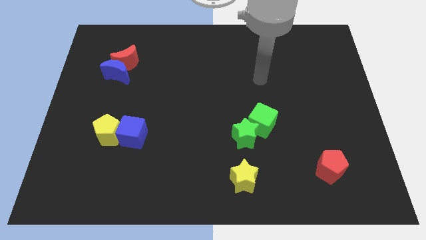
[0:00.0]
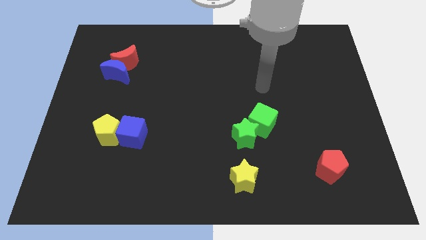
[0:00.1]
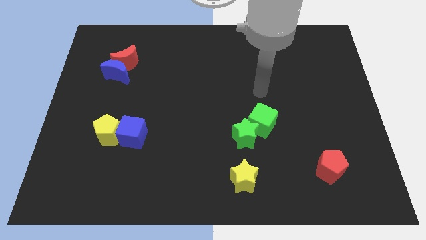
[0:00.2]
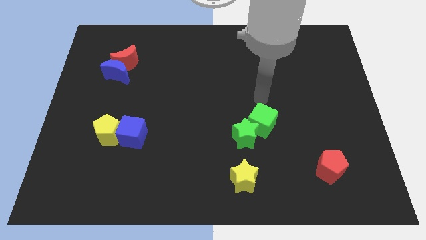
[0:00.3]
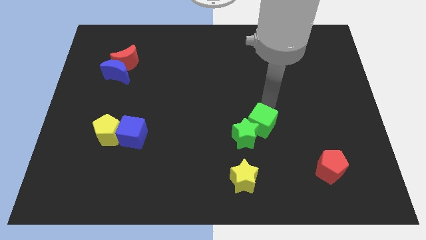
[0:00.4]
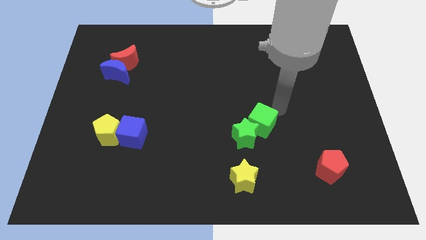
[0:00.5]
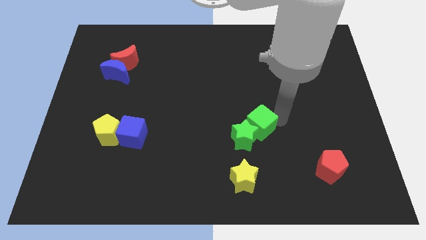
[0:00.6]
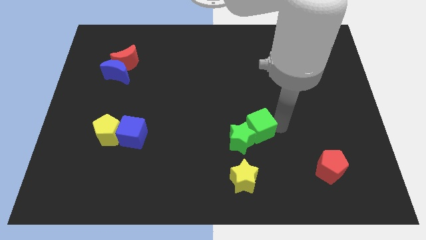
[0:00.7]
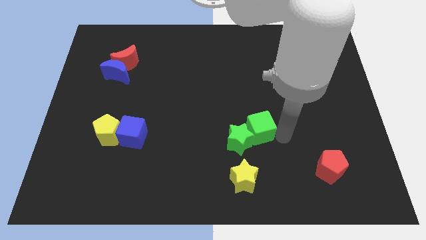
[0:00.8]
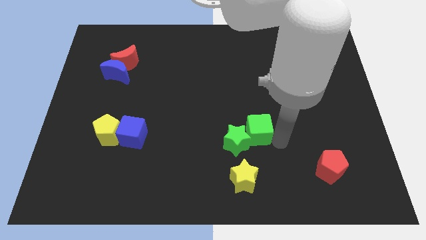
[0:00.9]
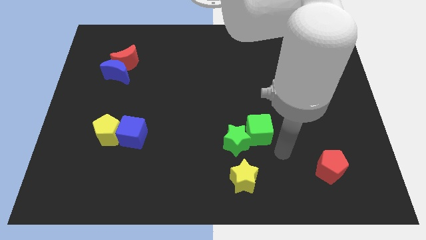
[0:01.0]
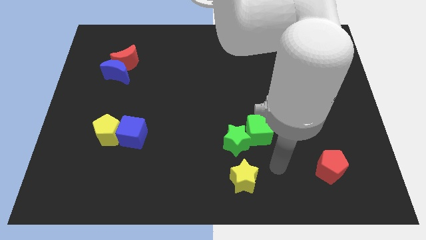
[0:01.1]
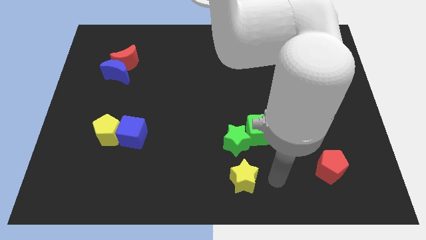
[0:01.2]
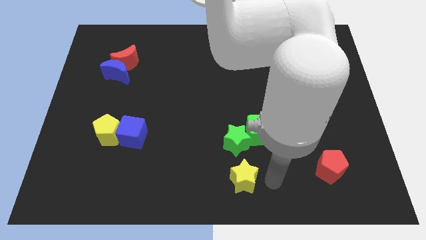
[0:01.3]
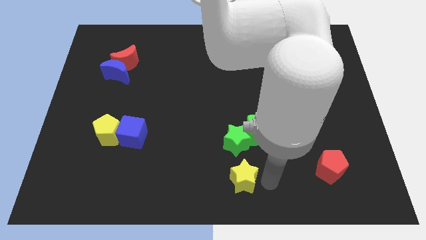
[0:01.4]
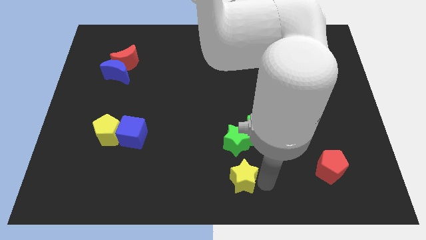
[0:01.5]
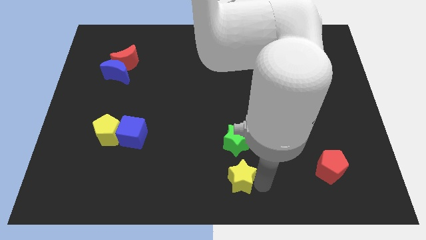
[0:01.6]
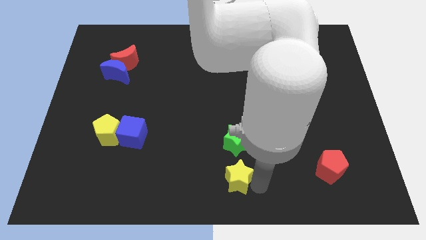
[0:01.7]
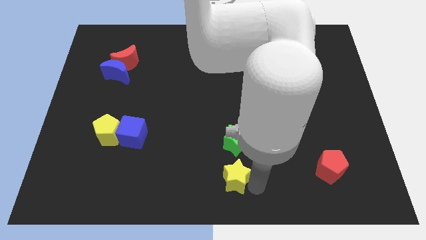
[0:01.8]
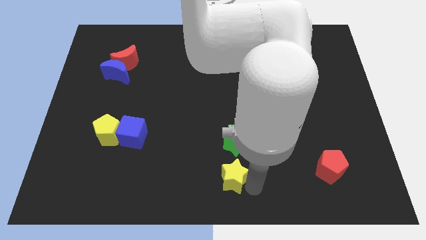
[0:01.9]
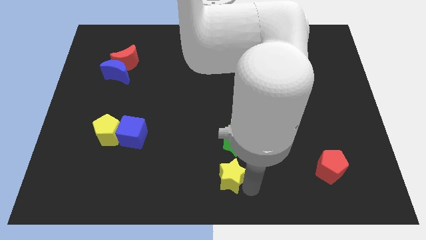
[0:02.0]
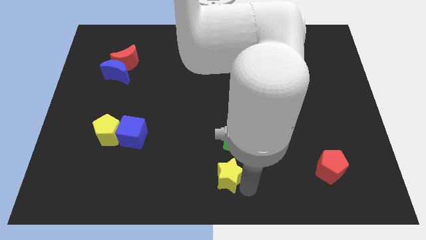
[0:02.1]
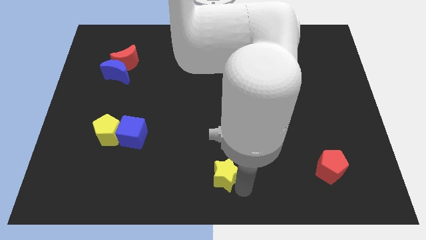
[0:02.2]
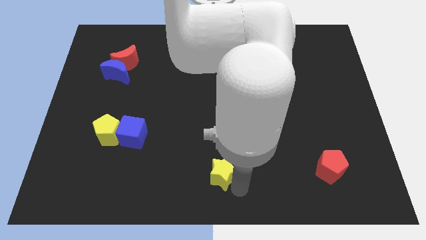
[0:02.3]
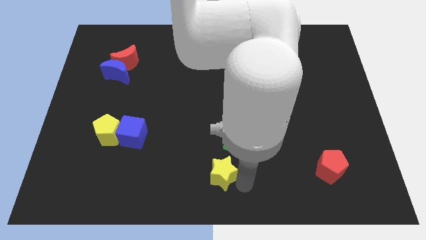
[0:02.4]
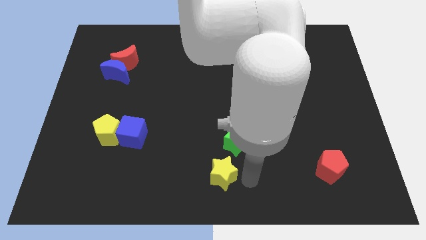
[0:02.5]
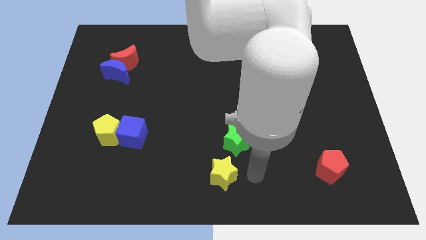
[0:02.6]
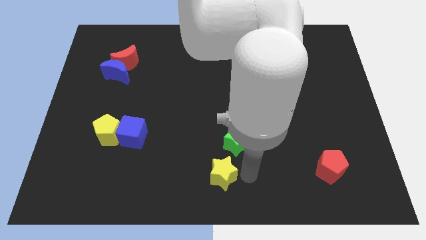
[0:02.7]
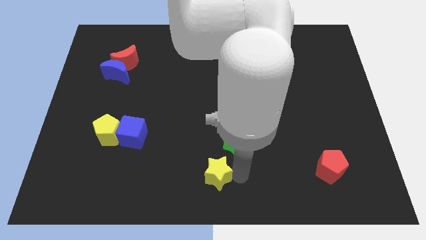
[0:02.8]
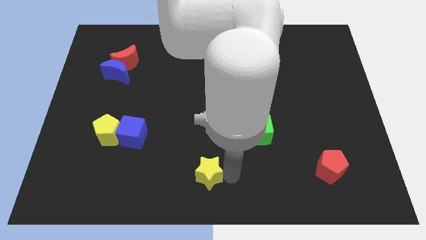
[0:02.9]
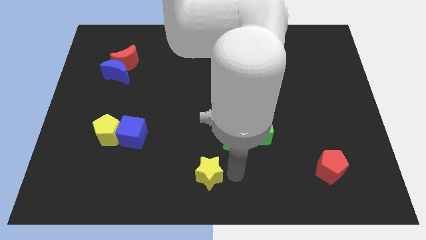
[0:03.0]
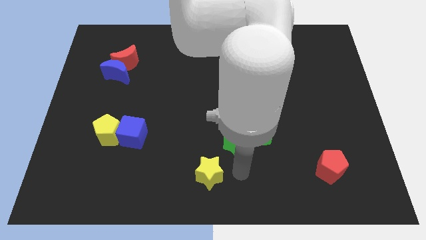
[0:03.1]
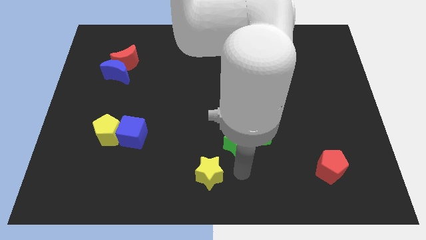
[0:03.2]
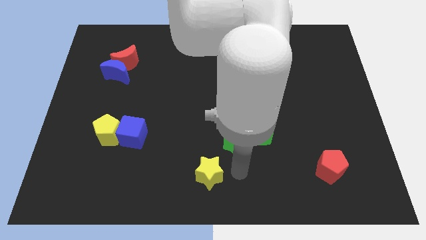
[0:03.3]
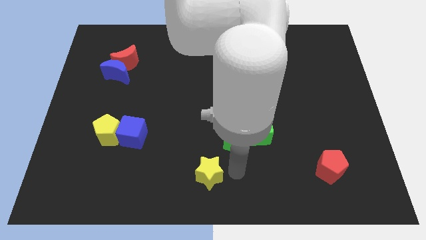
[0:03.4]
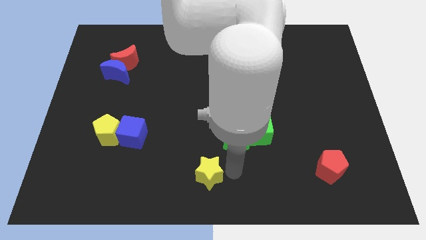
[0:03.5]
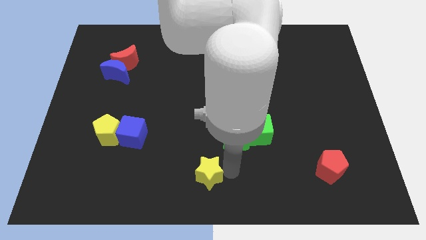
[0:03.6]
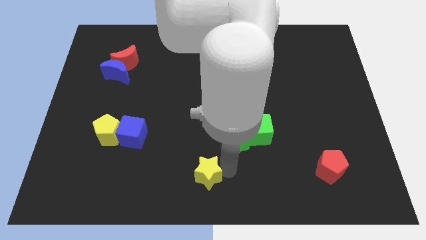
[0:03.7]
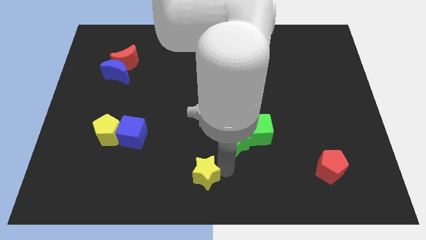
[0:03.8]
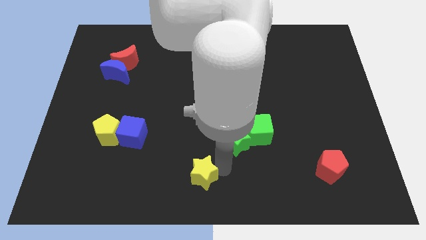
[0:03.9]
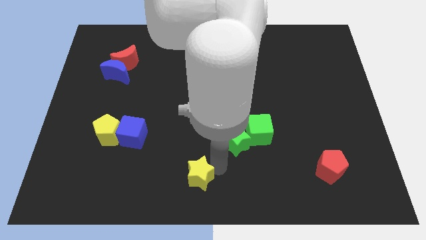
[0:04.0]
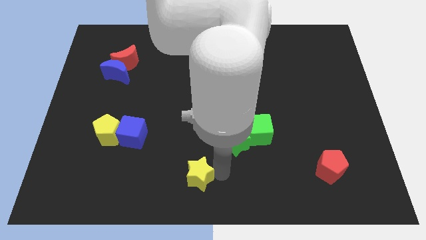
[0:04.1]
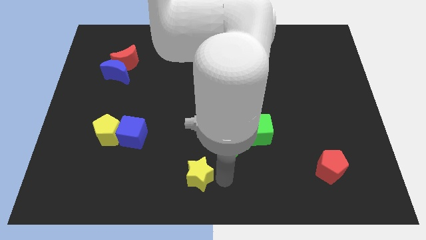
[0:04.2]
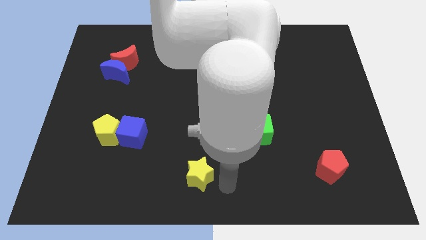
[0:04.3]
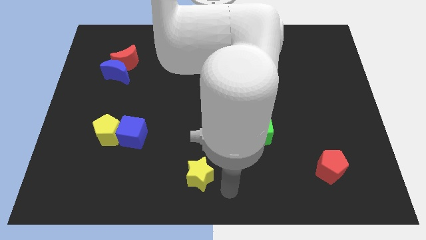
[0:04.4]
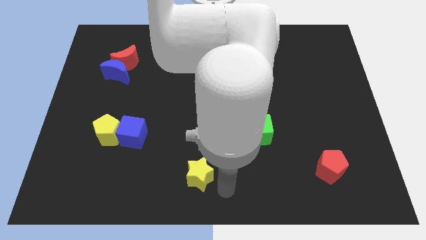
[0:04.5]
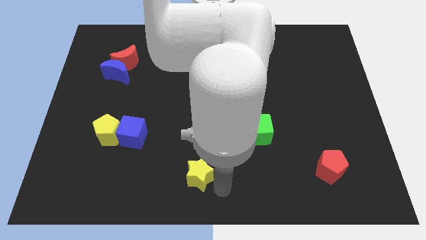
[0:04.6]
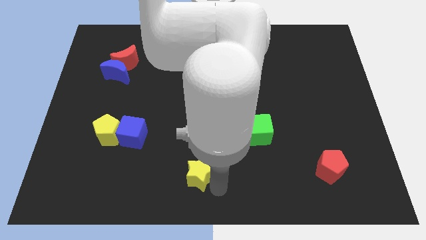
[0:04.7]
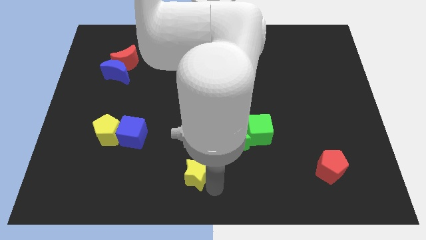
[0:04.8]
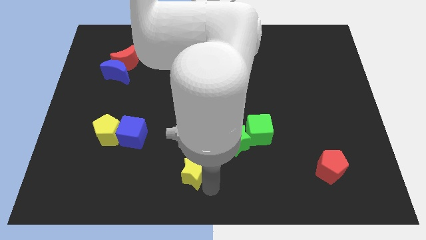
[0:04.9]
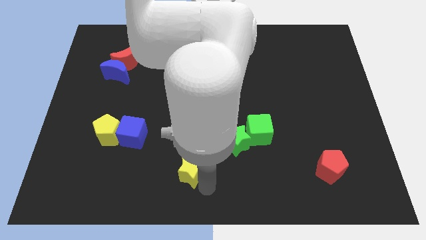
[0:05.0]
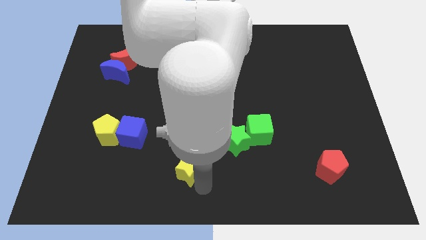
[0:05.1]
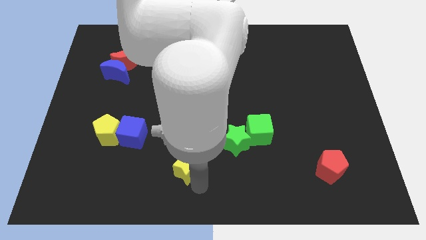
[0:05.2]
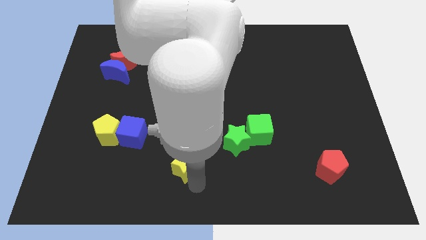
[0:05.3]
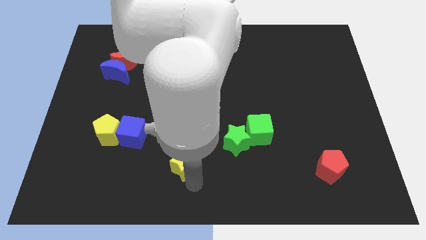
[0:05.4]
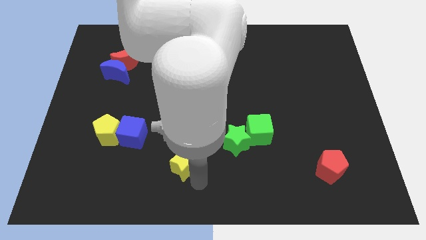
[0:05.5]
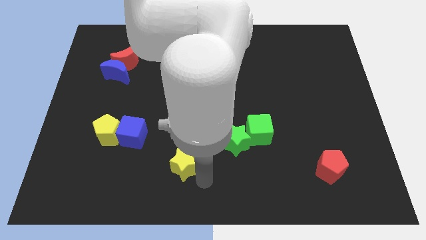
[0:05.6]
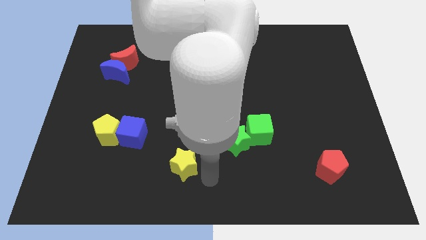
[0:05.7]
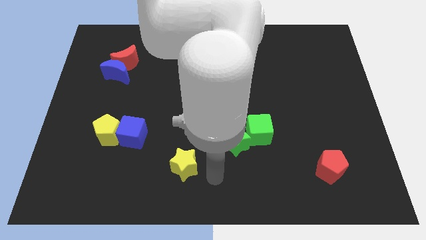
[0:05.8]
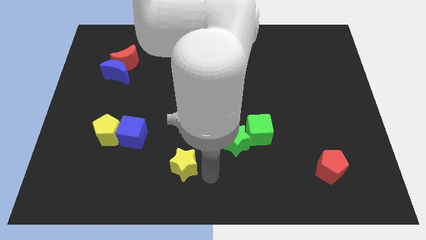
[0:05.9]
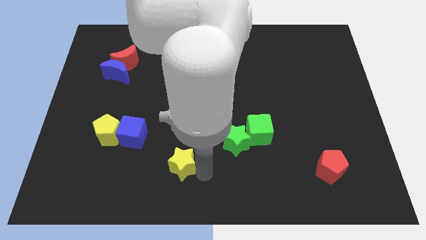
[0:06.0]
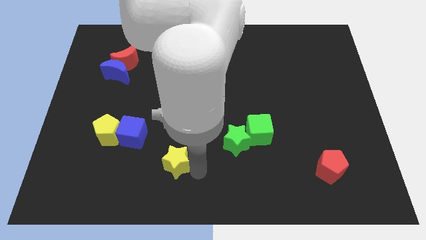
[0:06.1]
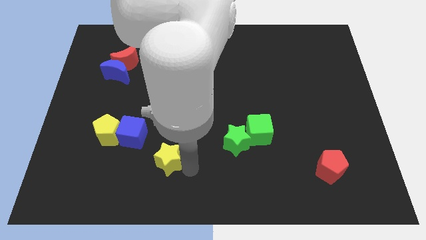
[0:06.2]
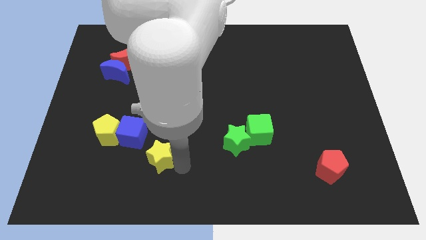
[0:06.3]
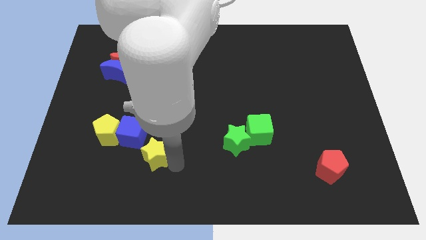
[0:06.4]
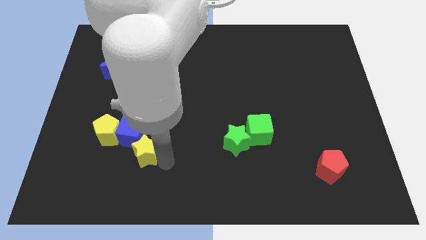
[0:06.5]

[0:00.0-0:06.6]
push the yellow star close to the blue cube

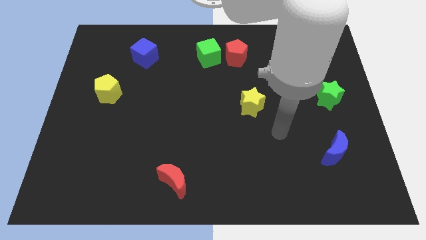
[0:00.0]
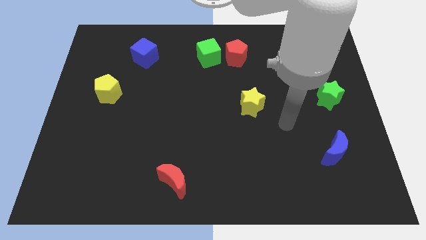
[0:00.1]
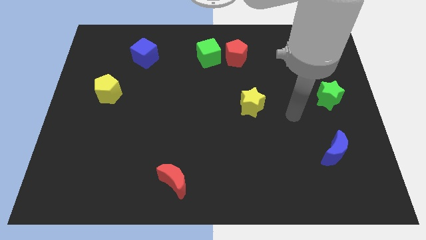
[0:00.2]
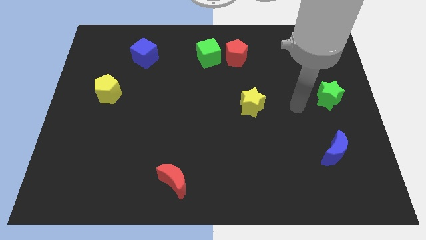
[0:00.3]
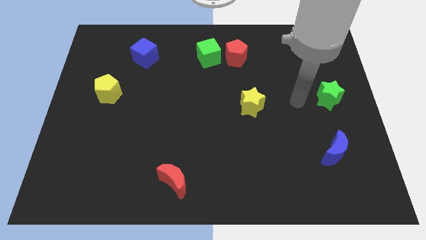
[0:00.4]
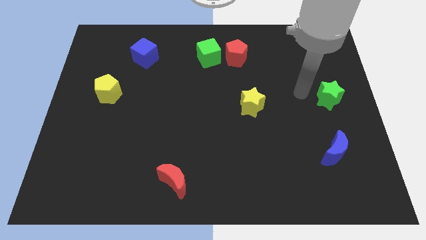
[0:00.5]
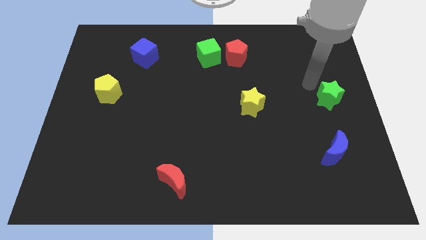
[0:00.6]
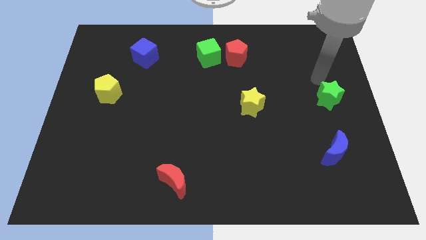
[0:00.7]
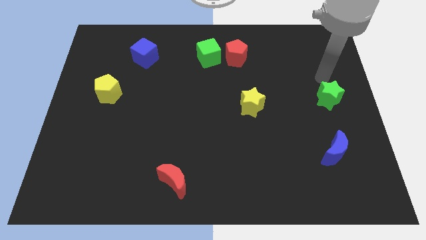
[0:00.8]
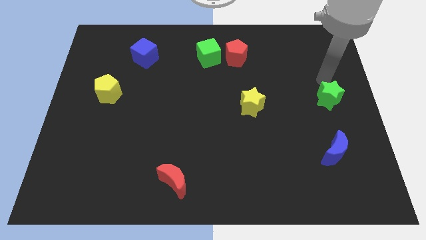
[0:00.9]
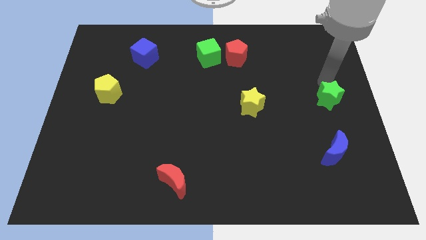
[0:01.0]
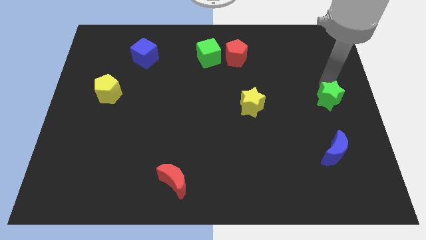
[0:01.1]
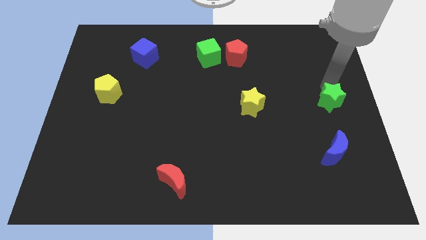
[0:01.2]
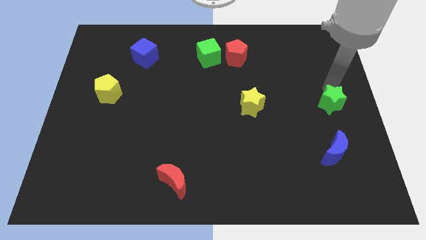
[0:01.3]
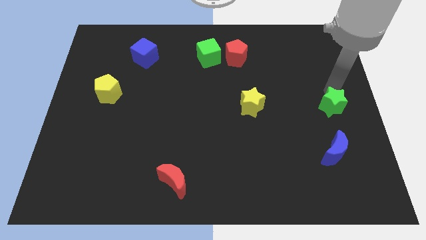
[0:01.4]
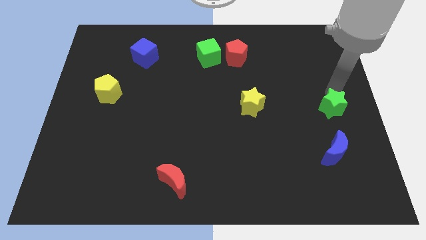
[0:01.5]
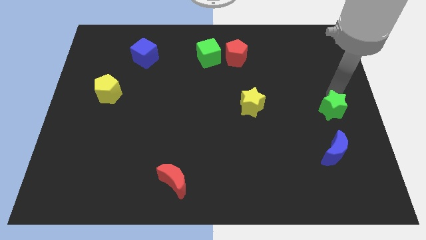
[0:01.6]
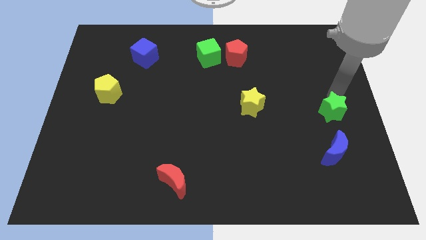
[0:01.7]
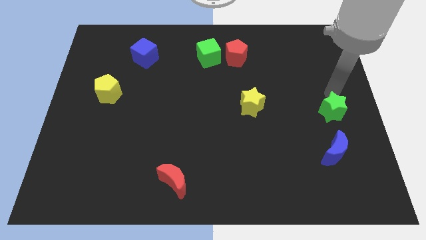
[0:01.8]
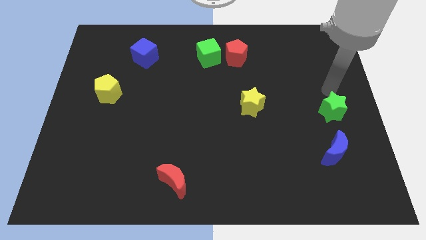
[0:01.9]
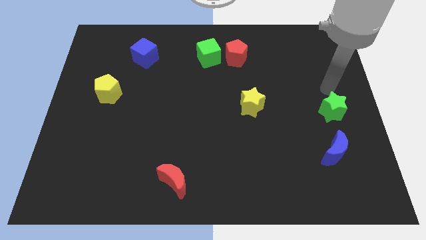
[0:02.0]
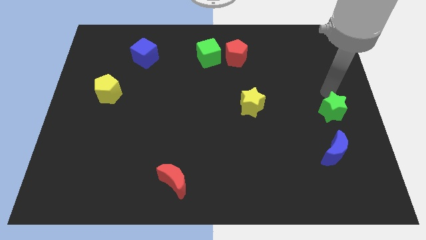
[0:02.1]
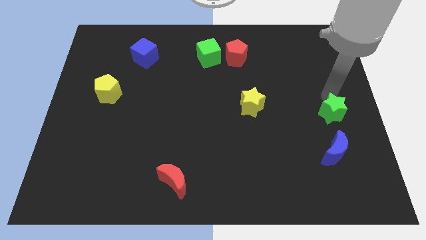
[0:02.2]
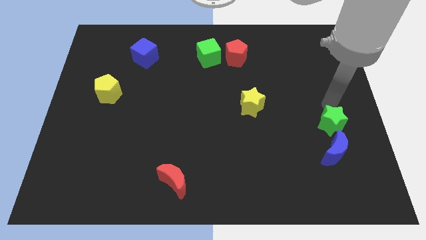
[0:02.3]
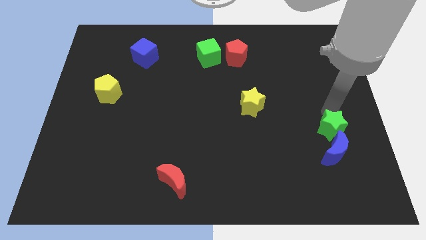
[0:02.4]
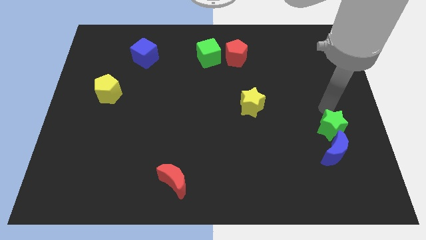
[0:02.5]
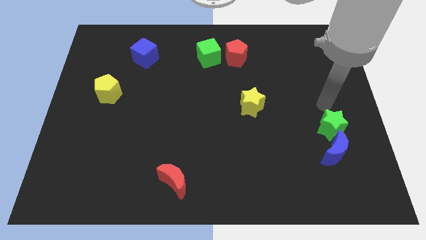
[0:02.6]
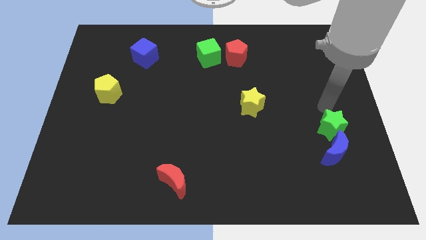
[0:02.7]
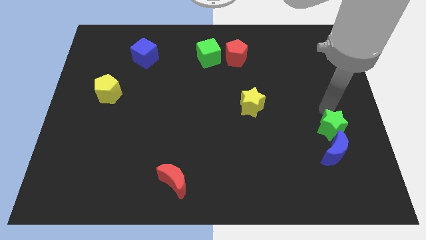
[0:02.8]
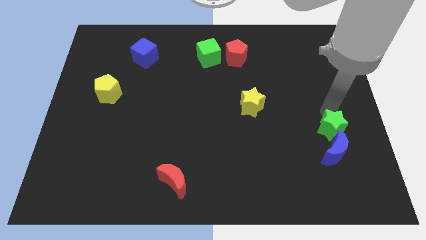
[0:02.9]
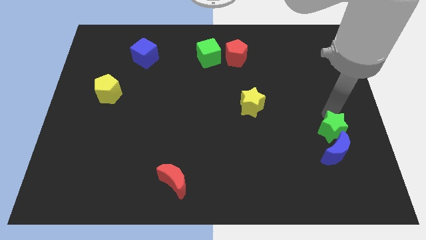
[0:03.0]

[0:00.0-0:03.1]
move the green star to the blue moon
